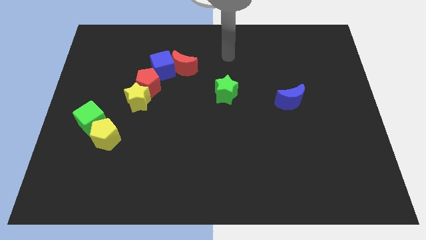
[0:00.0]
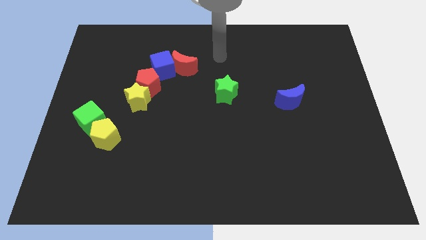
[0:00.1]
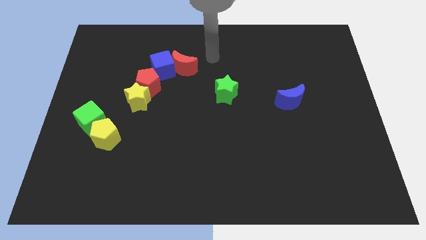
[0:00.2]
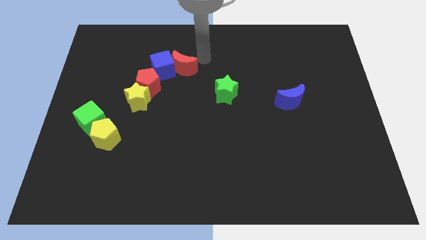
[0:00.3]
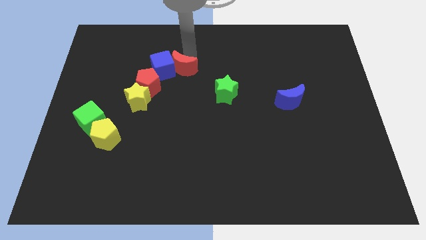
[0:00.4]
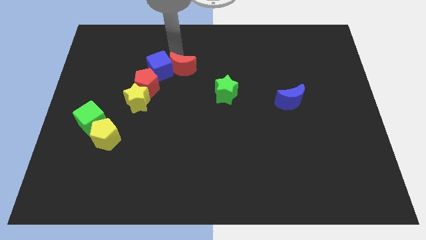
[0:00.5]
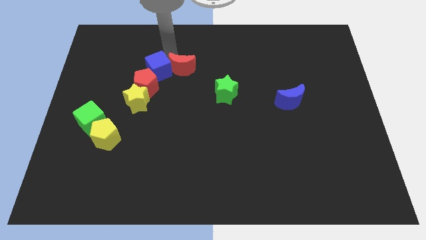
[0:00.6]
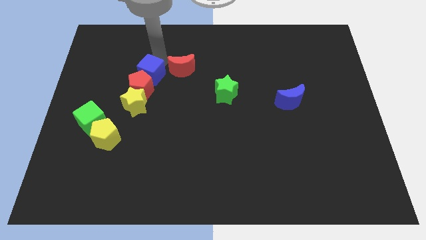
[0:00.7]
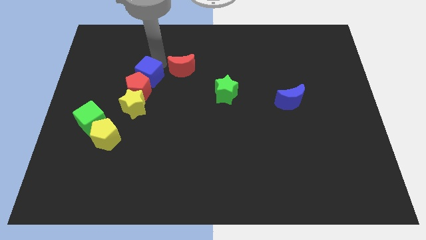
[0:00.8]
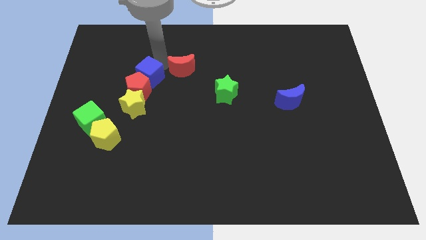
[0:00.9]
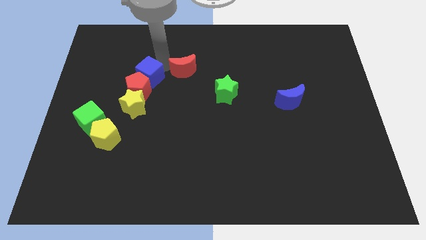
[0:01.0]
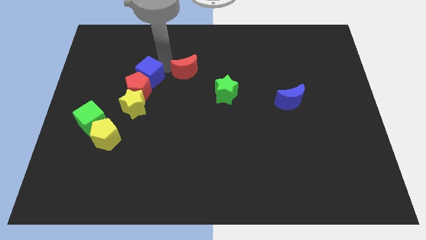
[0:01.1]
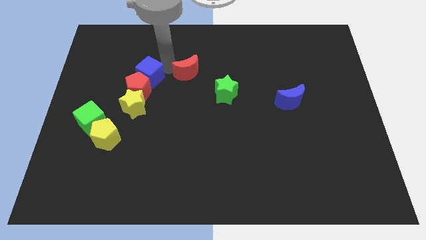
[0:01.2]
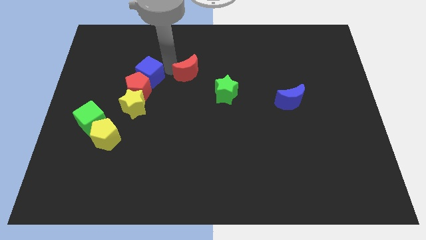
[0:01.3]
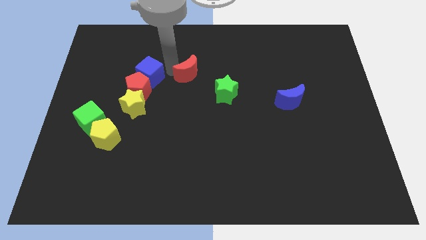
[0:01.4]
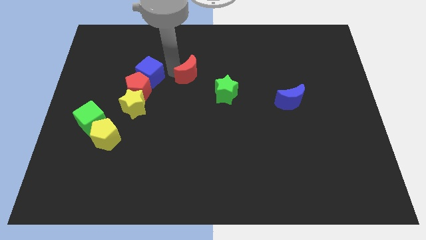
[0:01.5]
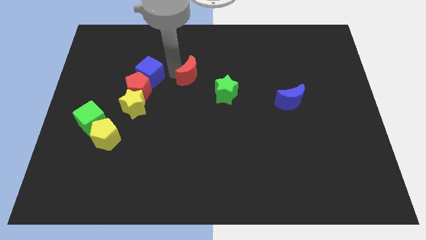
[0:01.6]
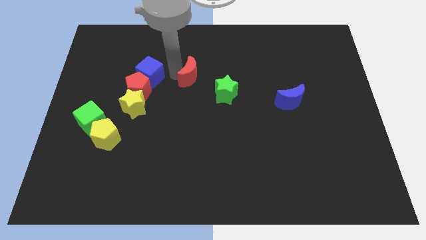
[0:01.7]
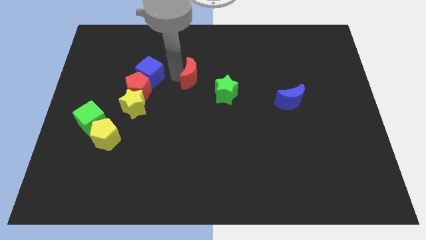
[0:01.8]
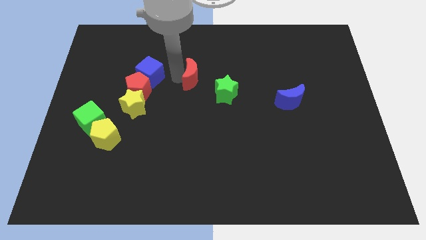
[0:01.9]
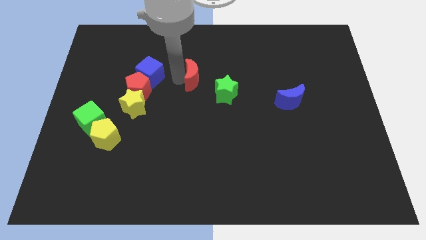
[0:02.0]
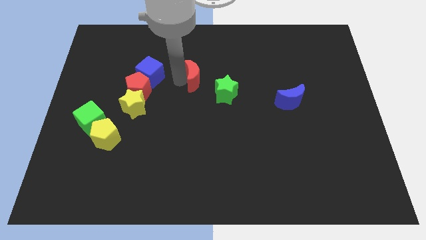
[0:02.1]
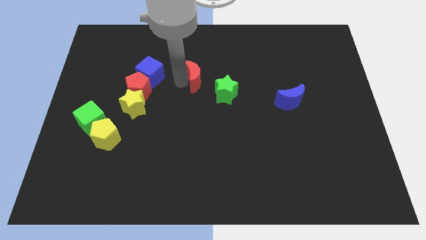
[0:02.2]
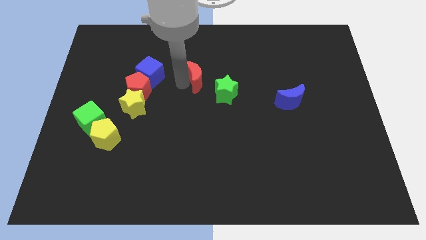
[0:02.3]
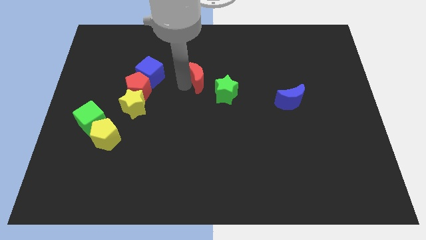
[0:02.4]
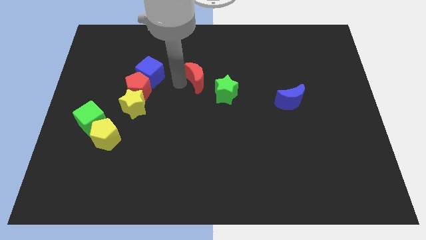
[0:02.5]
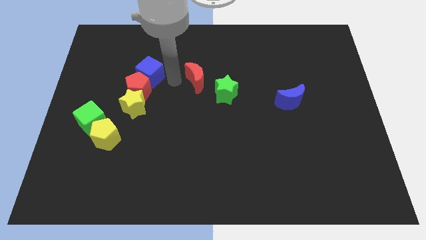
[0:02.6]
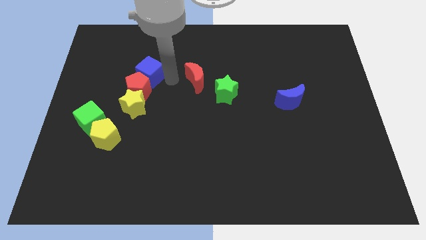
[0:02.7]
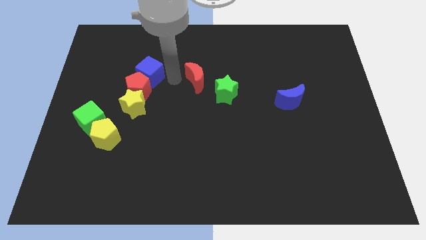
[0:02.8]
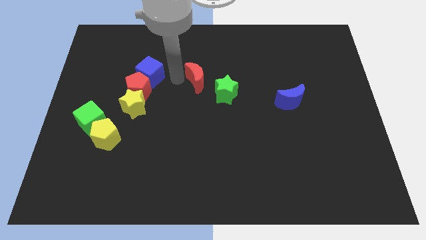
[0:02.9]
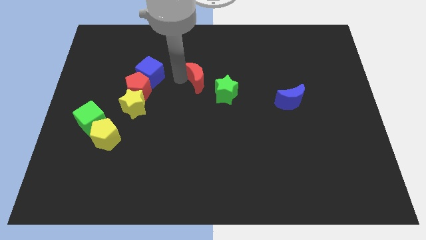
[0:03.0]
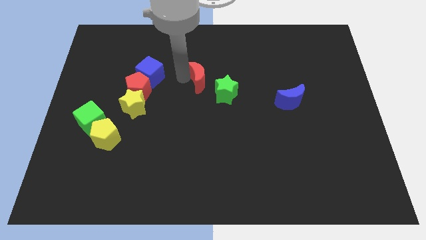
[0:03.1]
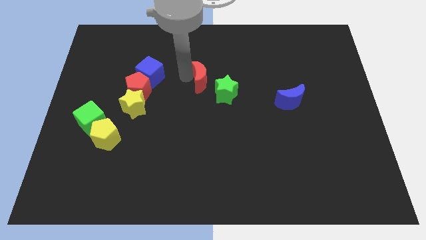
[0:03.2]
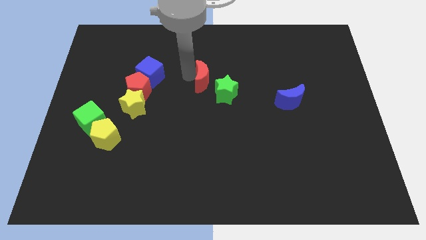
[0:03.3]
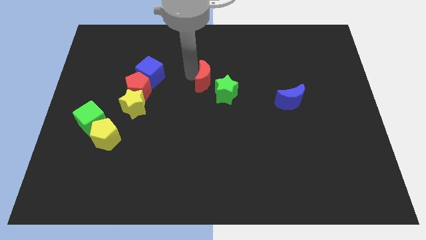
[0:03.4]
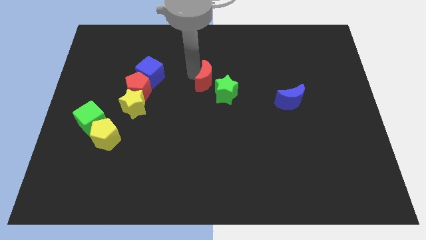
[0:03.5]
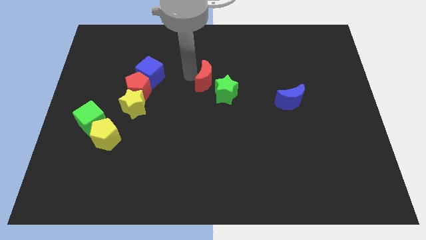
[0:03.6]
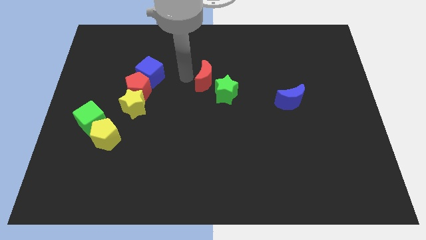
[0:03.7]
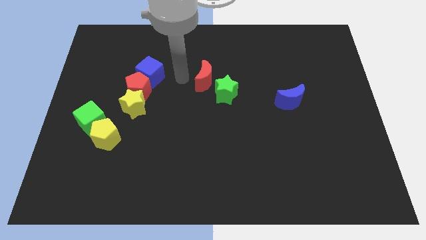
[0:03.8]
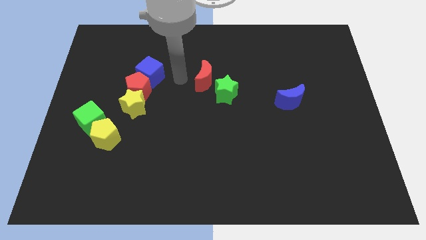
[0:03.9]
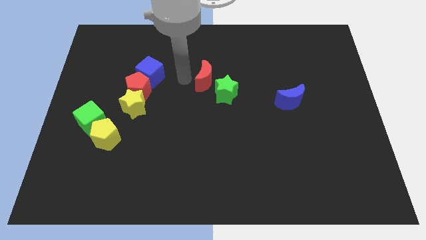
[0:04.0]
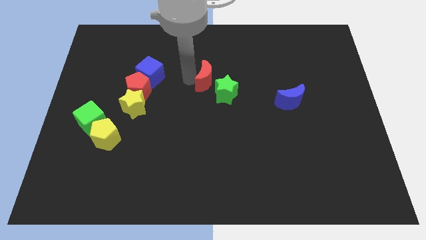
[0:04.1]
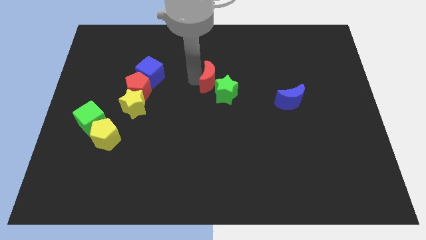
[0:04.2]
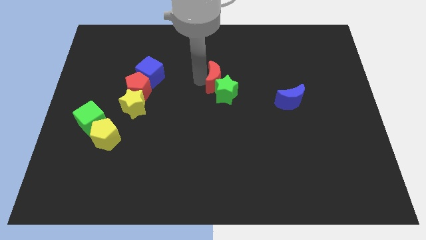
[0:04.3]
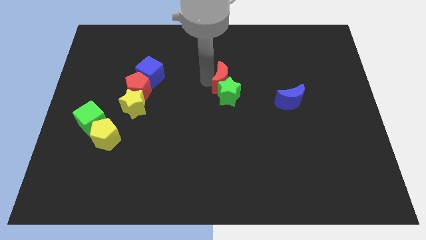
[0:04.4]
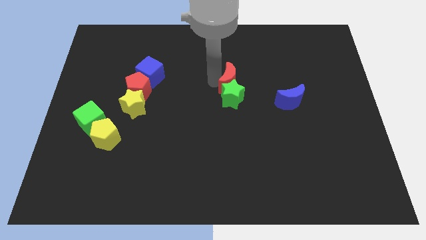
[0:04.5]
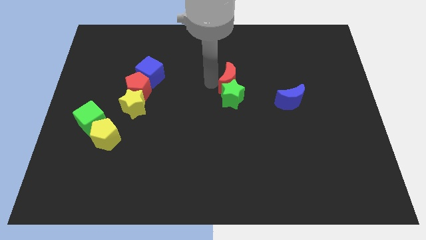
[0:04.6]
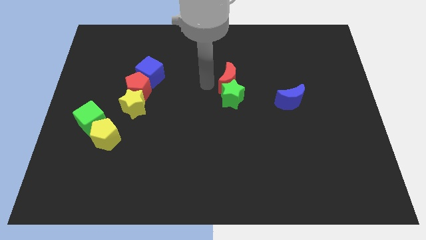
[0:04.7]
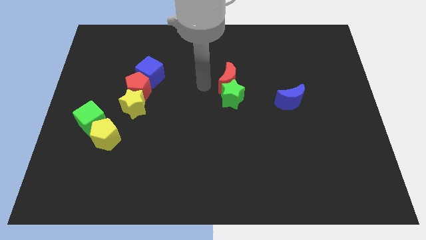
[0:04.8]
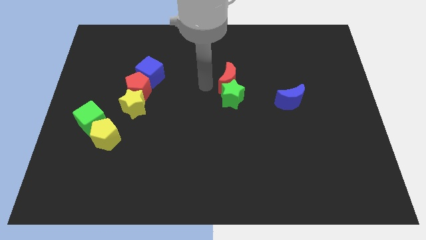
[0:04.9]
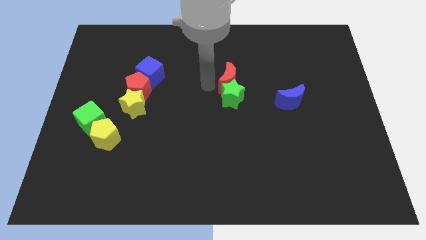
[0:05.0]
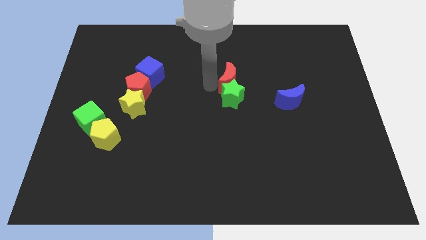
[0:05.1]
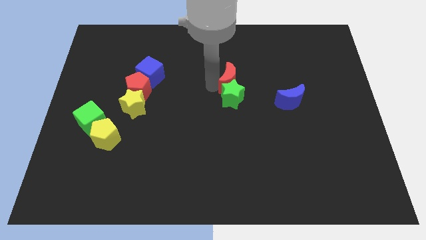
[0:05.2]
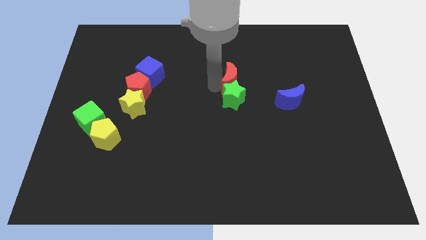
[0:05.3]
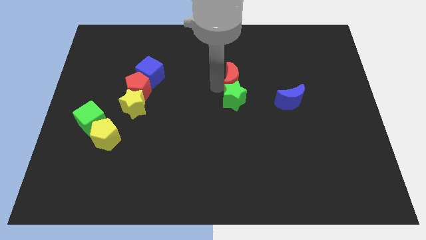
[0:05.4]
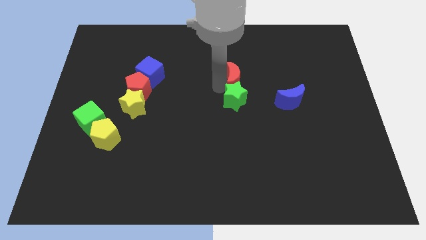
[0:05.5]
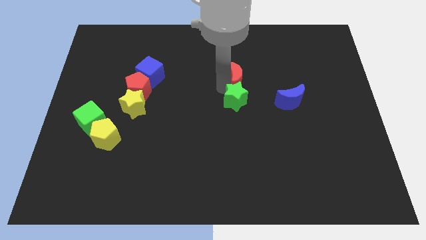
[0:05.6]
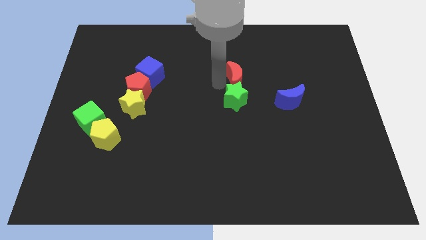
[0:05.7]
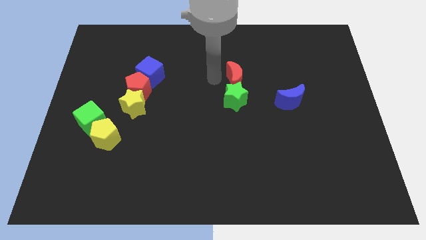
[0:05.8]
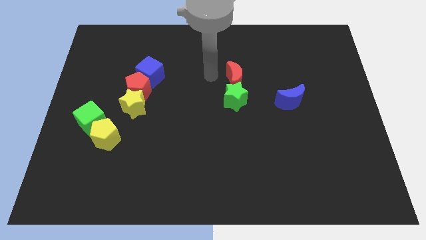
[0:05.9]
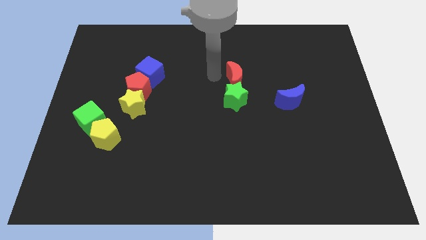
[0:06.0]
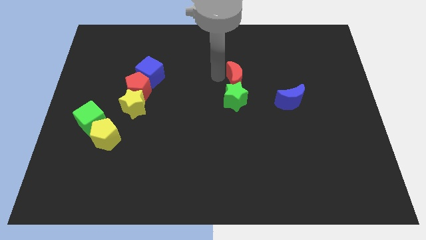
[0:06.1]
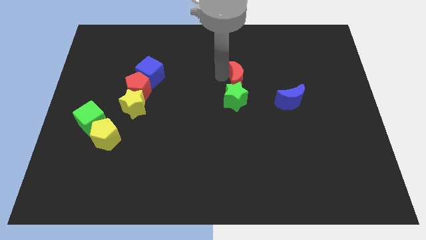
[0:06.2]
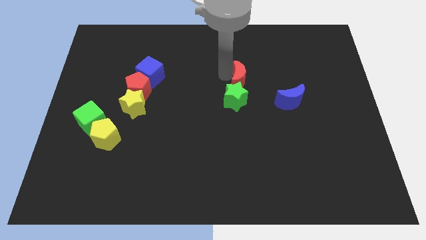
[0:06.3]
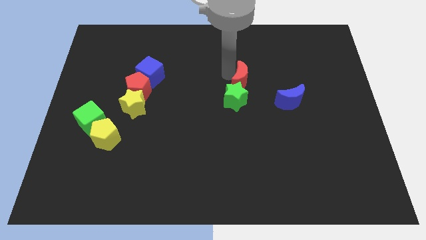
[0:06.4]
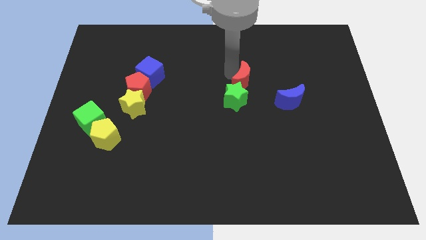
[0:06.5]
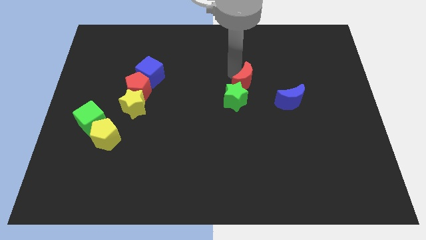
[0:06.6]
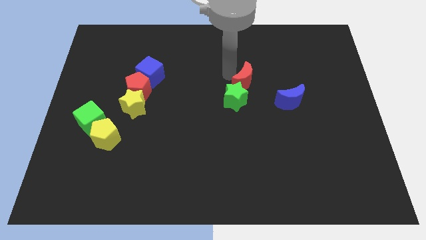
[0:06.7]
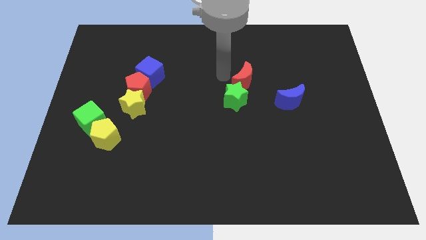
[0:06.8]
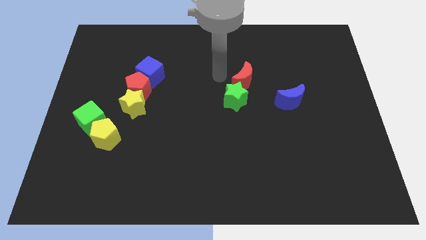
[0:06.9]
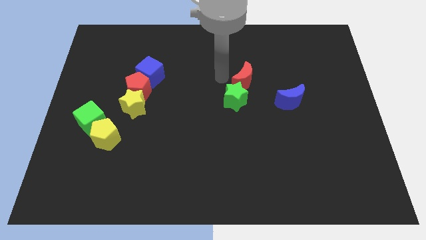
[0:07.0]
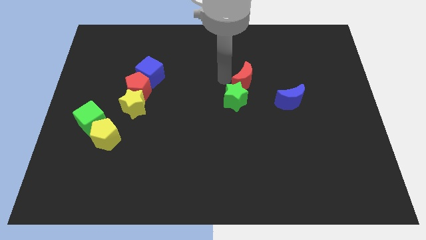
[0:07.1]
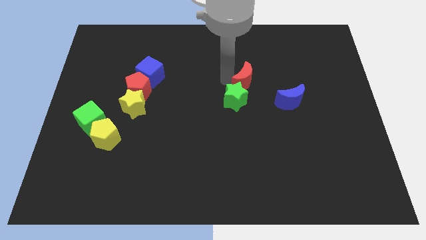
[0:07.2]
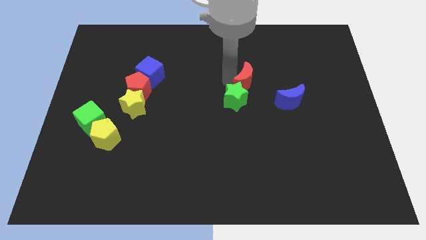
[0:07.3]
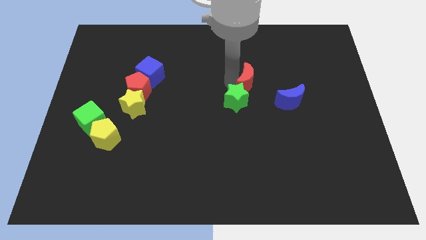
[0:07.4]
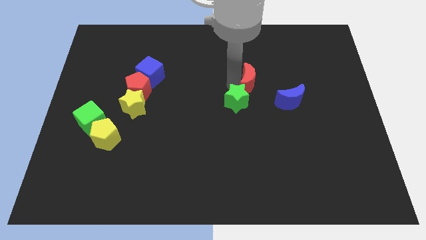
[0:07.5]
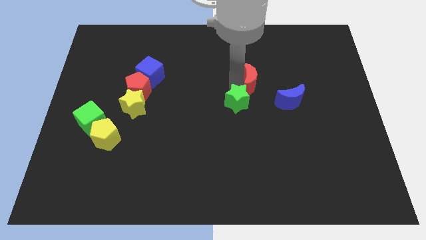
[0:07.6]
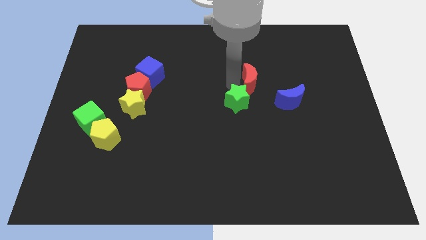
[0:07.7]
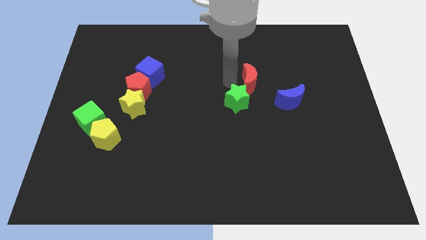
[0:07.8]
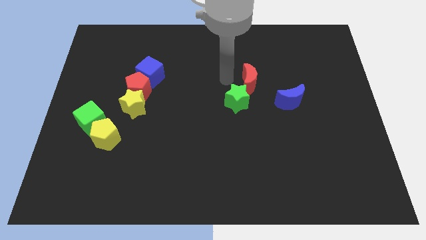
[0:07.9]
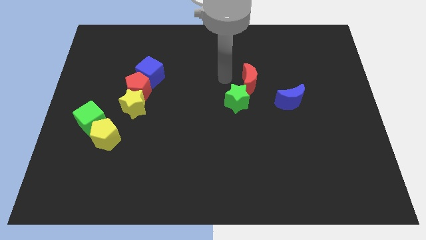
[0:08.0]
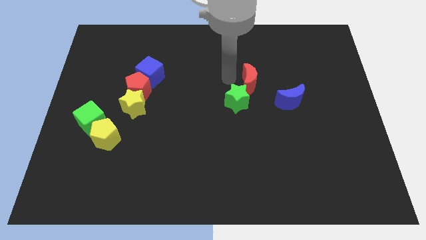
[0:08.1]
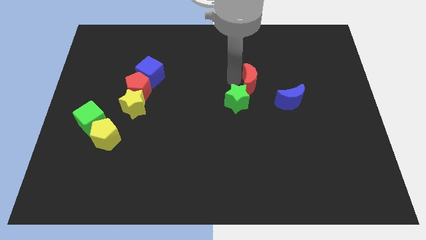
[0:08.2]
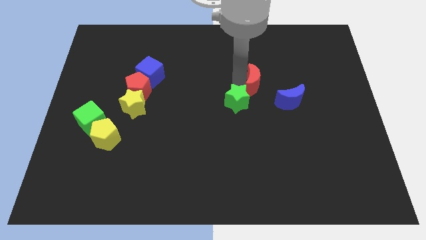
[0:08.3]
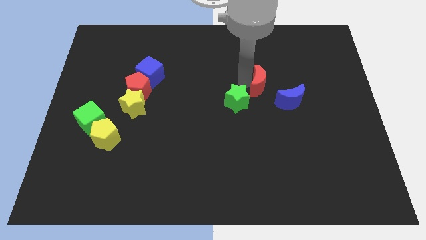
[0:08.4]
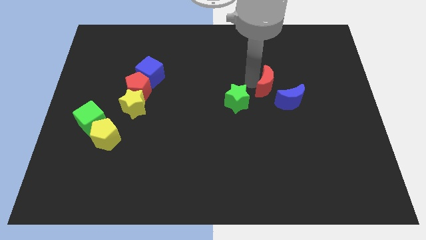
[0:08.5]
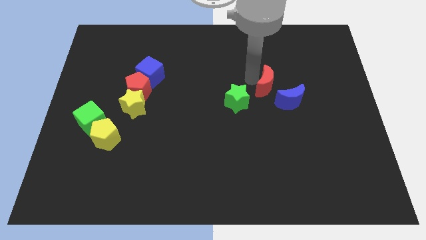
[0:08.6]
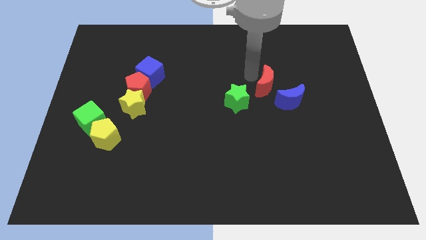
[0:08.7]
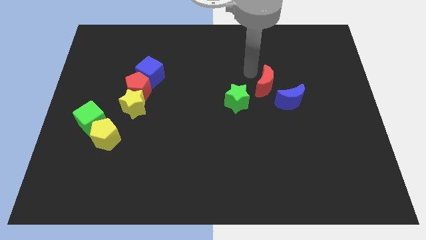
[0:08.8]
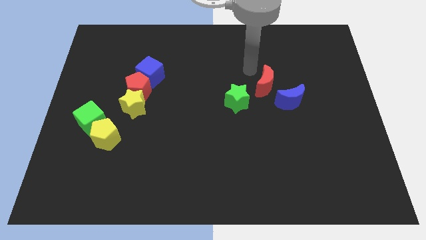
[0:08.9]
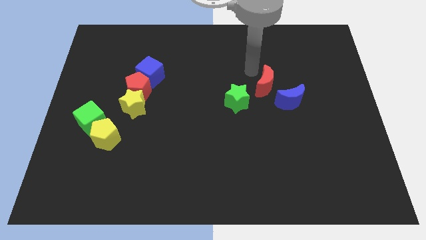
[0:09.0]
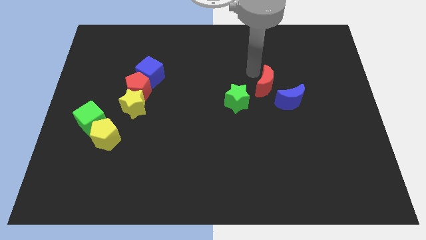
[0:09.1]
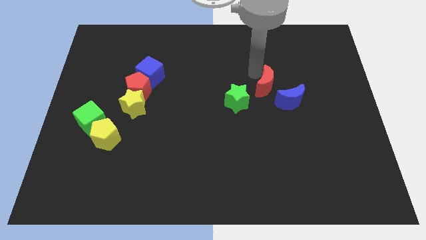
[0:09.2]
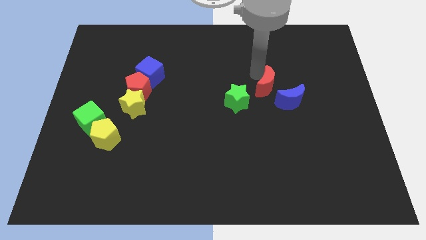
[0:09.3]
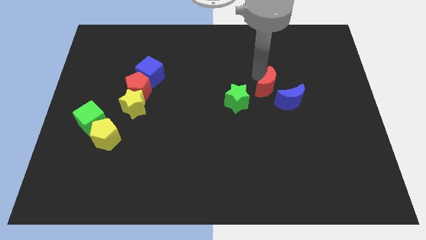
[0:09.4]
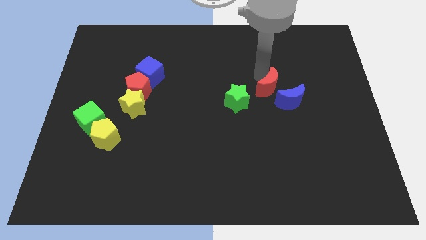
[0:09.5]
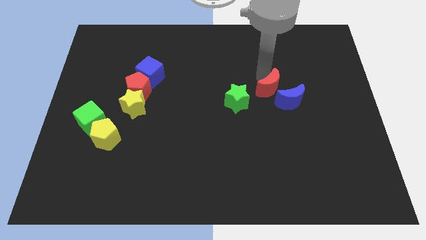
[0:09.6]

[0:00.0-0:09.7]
slide the red moon next to the blue moon
